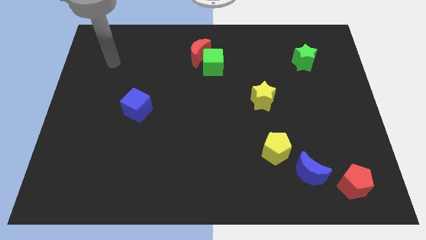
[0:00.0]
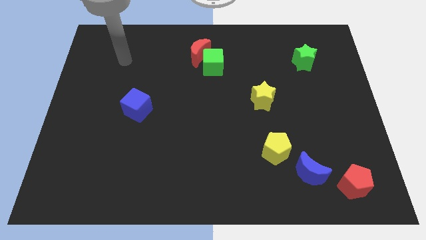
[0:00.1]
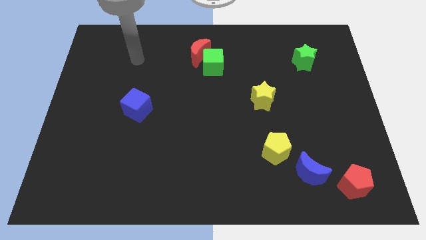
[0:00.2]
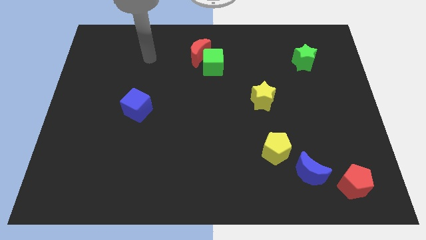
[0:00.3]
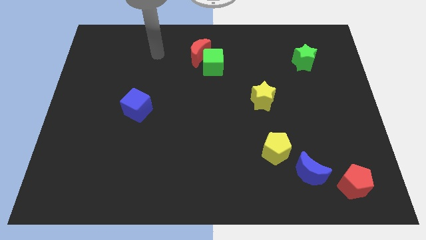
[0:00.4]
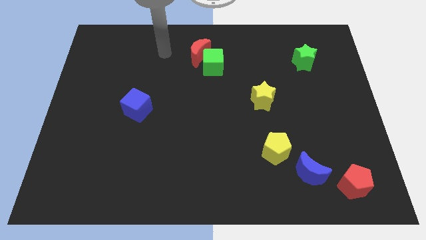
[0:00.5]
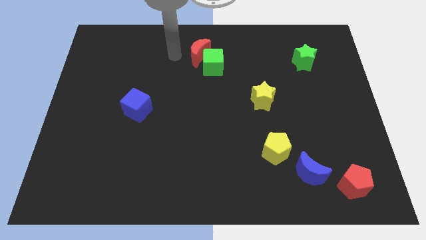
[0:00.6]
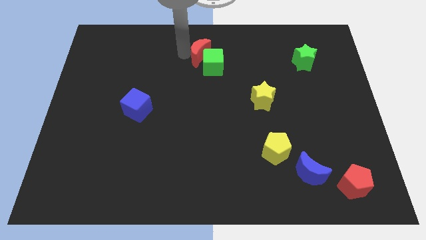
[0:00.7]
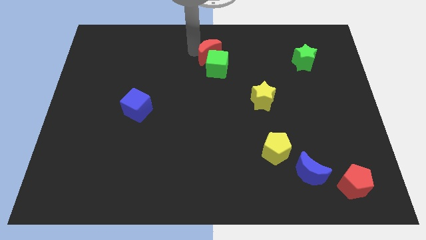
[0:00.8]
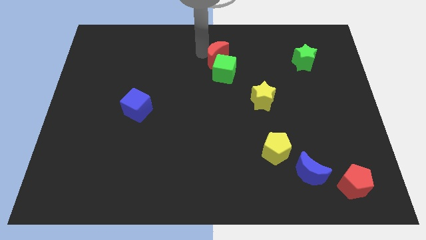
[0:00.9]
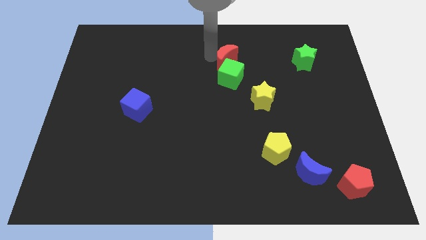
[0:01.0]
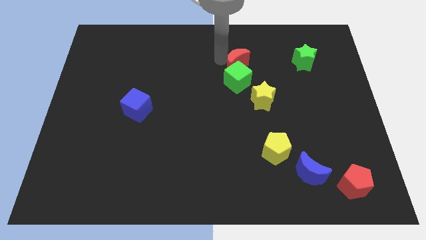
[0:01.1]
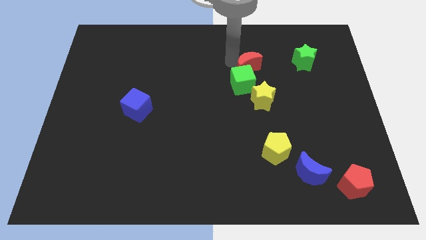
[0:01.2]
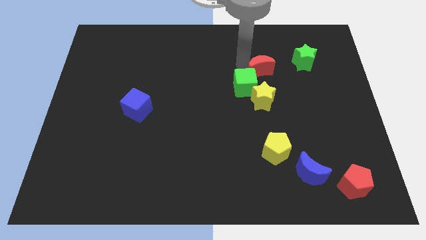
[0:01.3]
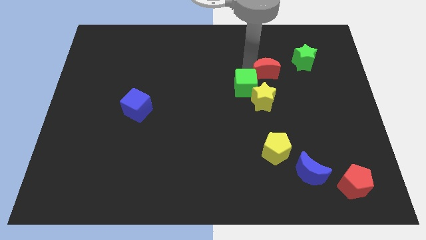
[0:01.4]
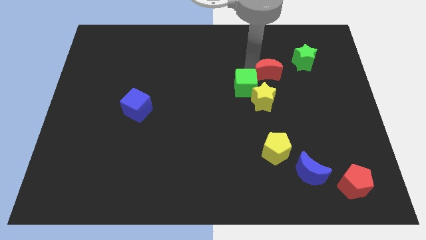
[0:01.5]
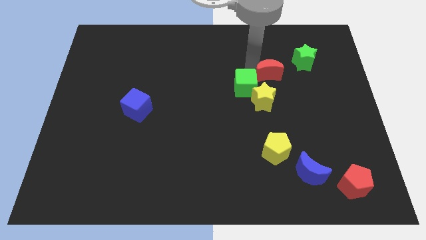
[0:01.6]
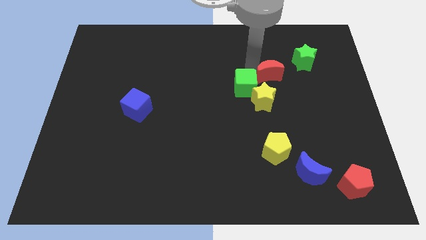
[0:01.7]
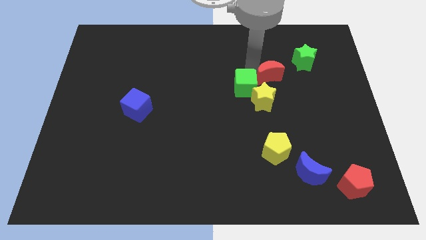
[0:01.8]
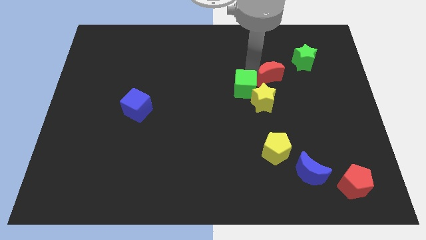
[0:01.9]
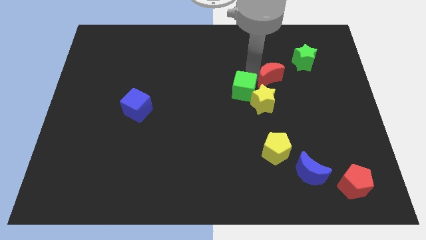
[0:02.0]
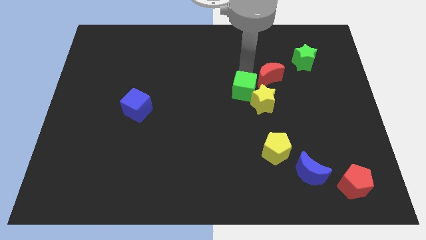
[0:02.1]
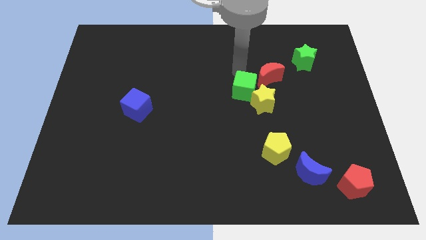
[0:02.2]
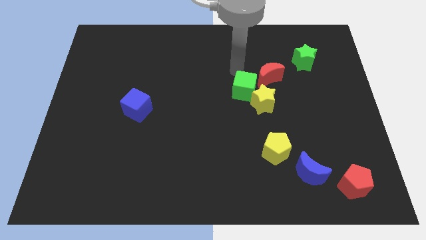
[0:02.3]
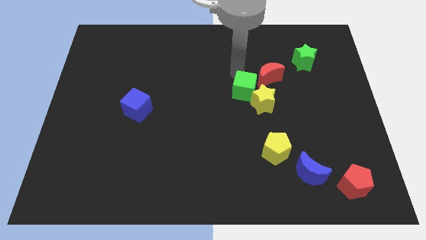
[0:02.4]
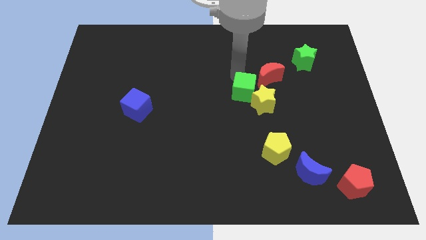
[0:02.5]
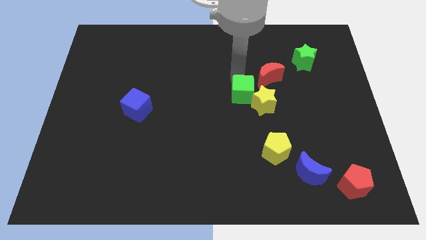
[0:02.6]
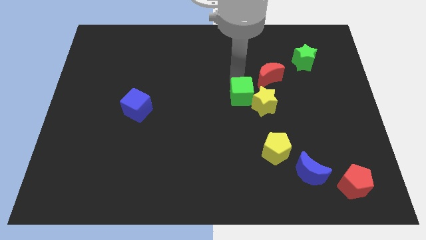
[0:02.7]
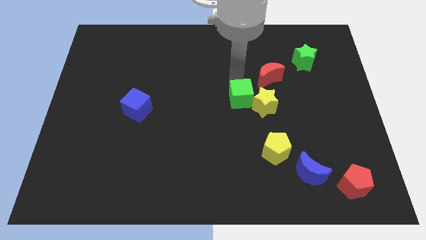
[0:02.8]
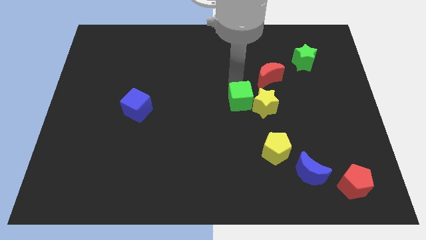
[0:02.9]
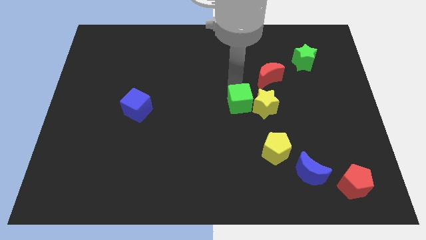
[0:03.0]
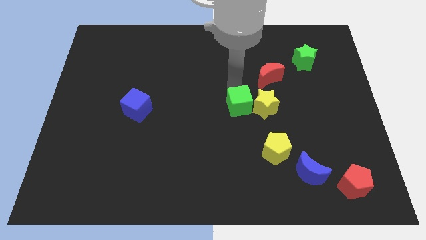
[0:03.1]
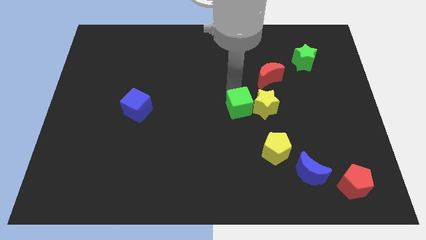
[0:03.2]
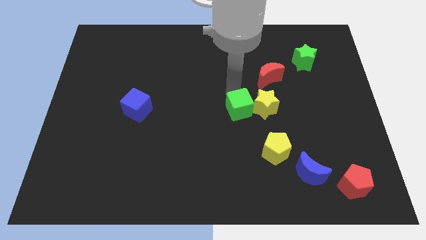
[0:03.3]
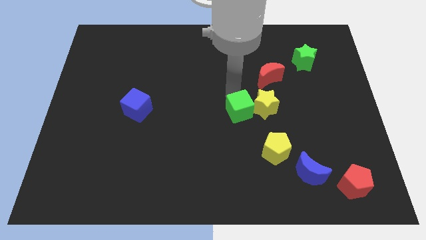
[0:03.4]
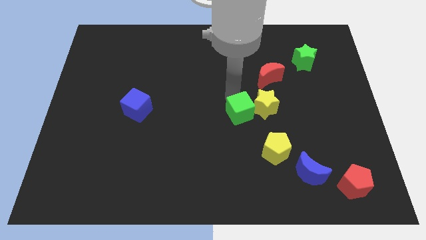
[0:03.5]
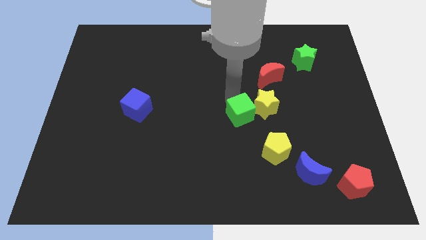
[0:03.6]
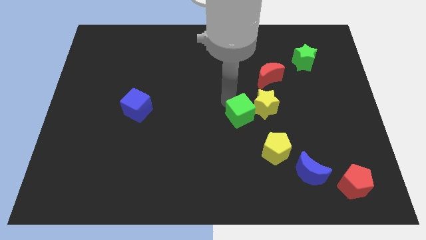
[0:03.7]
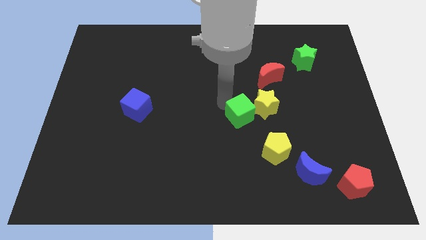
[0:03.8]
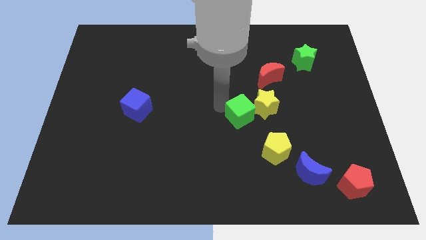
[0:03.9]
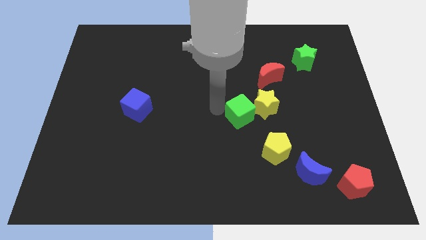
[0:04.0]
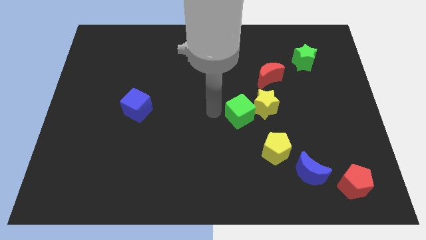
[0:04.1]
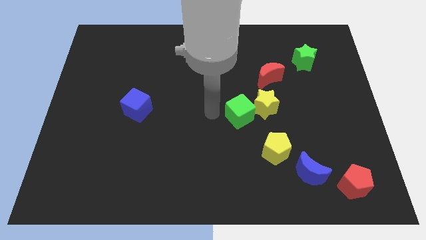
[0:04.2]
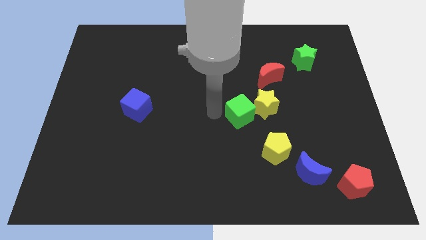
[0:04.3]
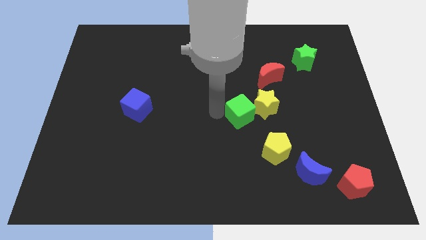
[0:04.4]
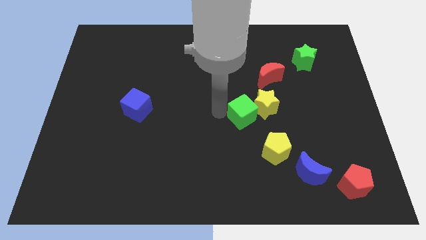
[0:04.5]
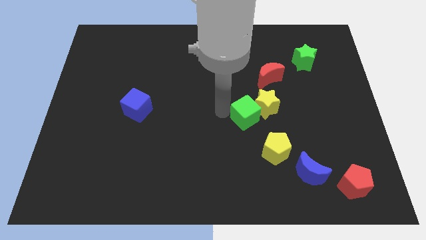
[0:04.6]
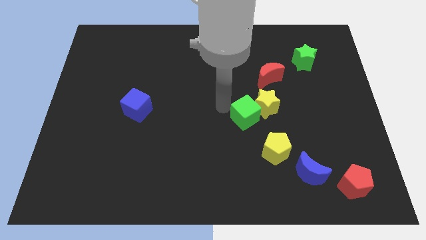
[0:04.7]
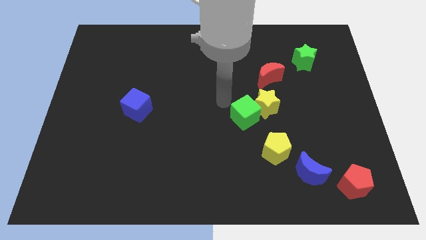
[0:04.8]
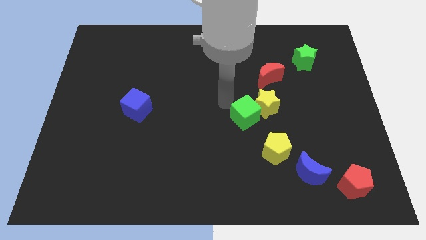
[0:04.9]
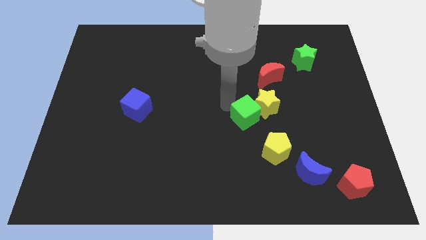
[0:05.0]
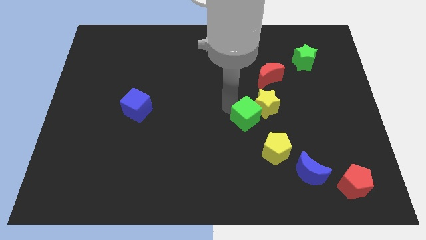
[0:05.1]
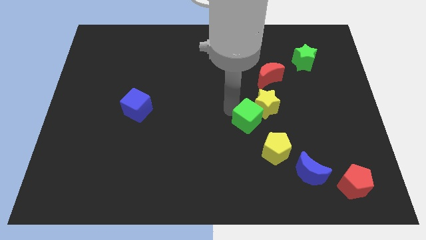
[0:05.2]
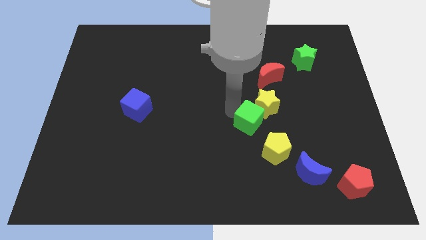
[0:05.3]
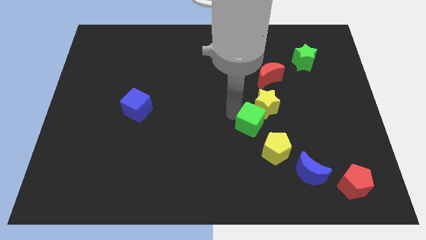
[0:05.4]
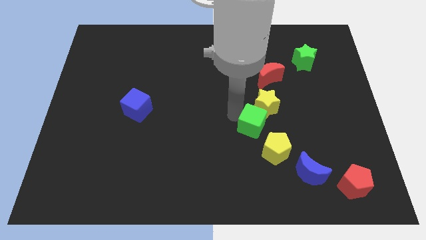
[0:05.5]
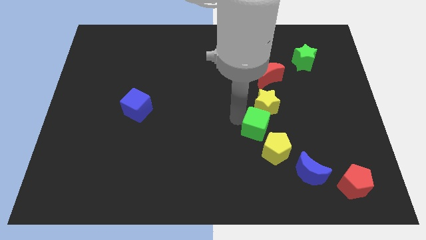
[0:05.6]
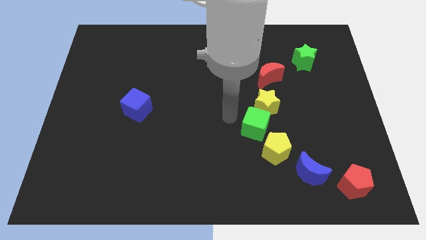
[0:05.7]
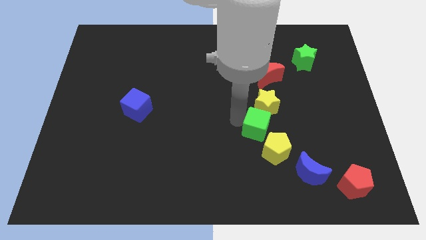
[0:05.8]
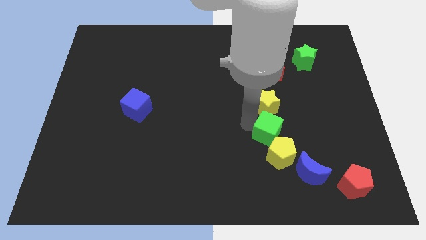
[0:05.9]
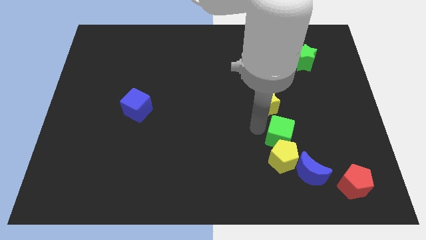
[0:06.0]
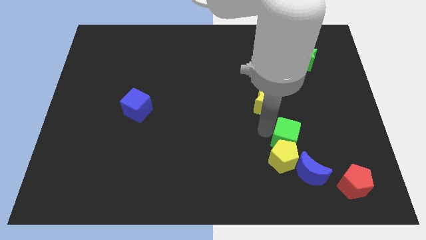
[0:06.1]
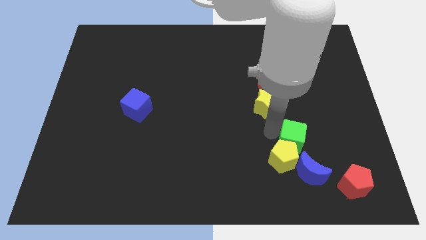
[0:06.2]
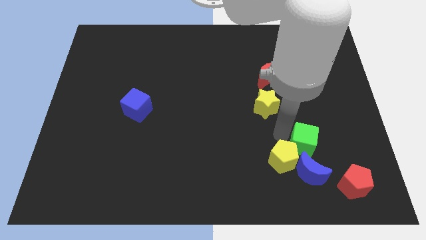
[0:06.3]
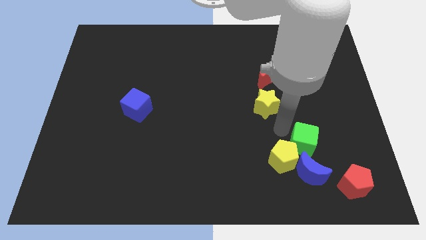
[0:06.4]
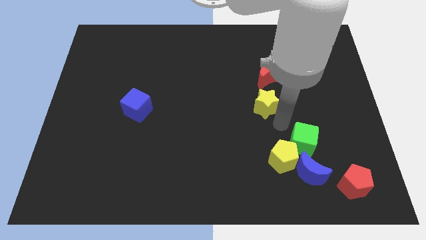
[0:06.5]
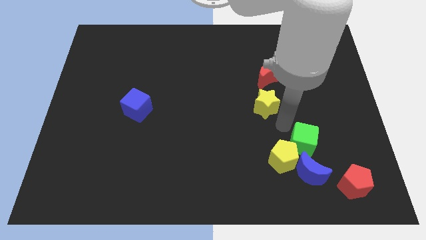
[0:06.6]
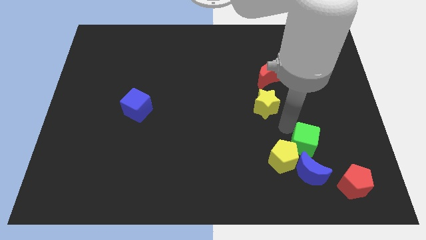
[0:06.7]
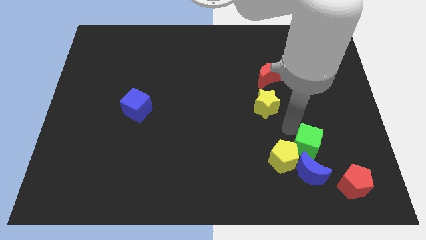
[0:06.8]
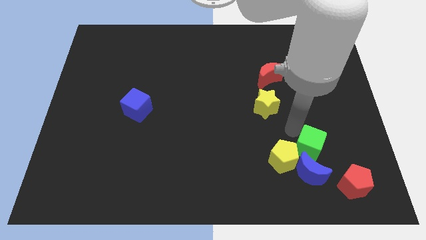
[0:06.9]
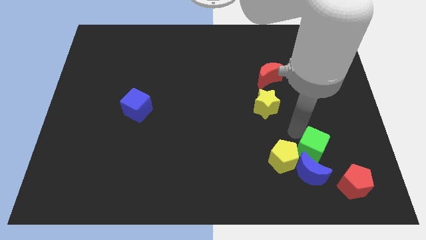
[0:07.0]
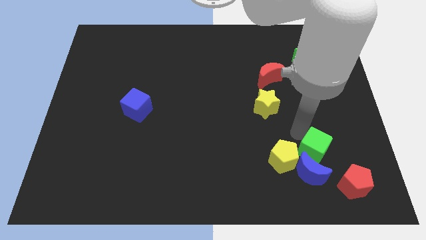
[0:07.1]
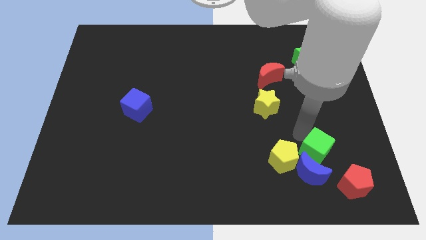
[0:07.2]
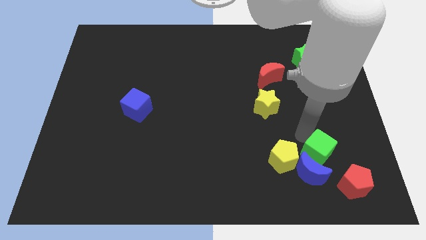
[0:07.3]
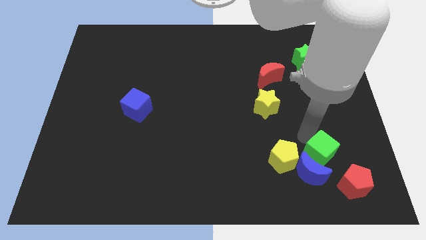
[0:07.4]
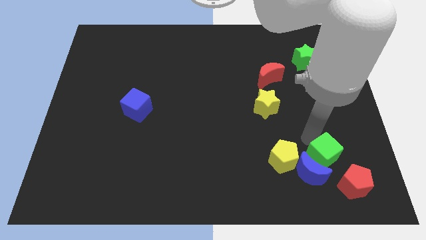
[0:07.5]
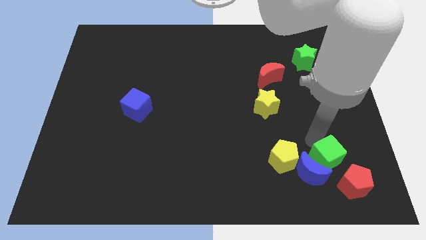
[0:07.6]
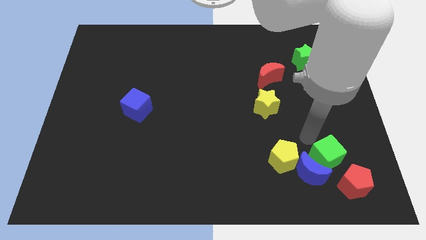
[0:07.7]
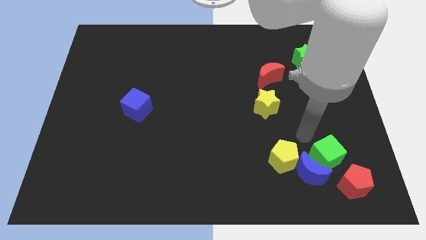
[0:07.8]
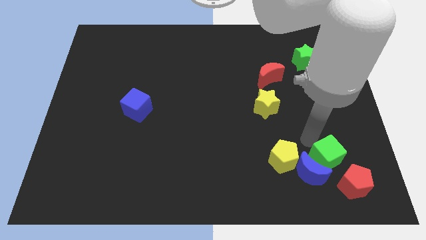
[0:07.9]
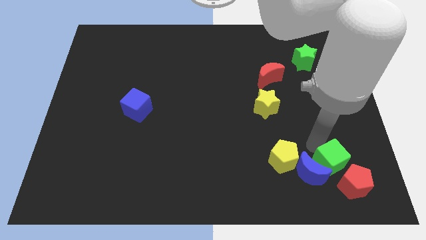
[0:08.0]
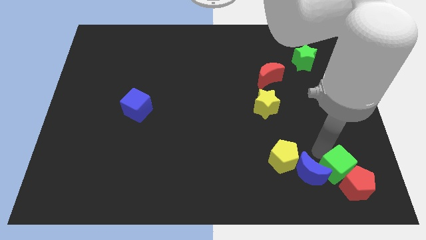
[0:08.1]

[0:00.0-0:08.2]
put the green cube to the red pentagon
